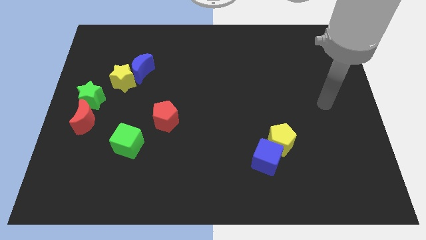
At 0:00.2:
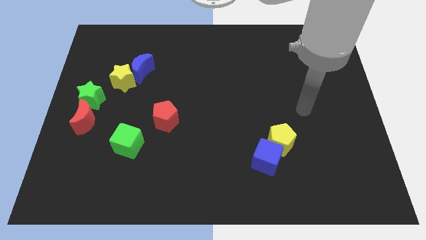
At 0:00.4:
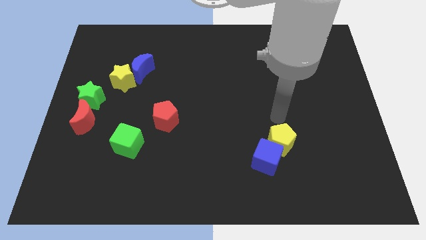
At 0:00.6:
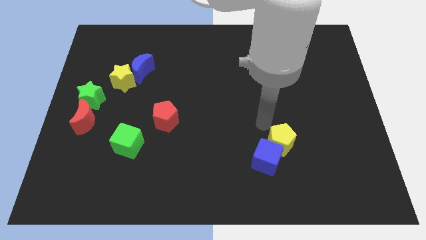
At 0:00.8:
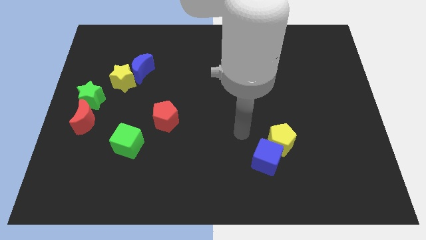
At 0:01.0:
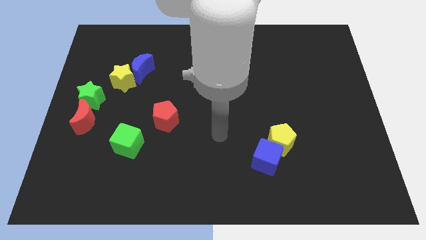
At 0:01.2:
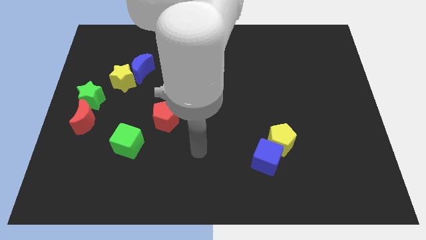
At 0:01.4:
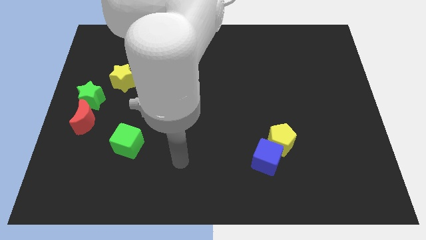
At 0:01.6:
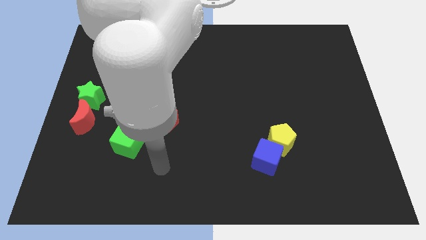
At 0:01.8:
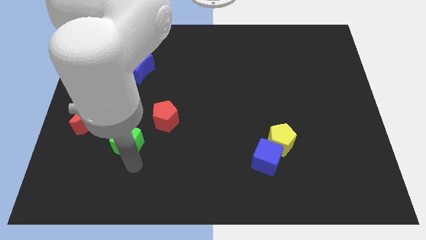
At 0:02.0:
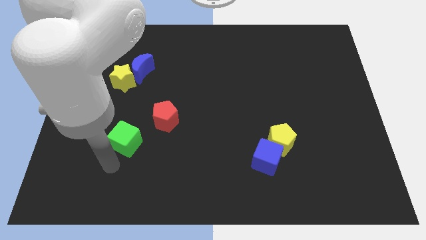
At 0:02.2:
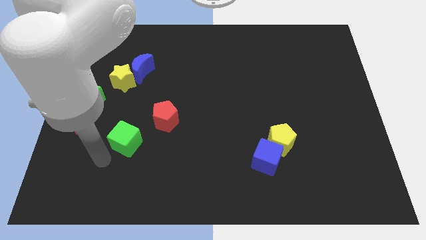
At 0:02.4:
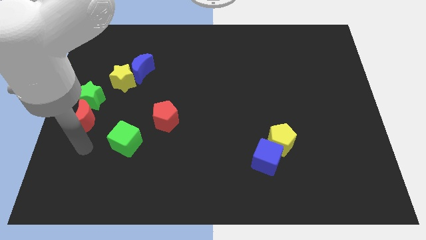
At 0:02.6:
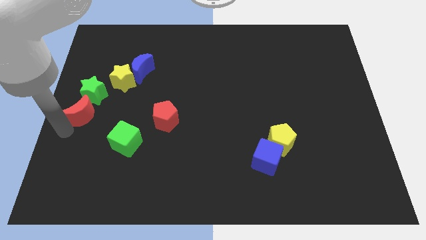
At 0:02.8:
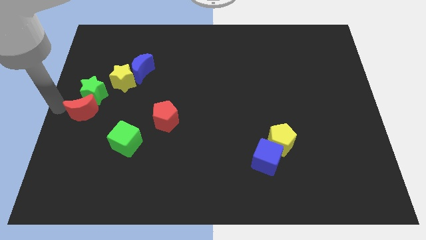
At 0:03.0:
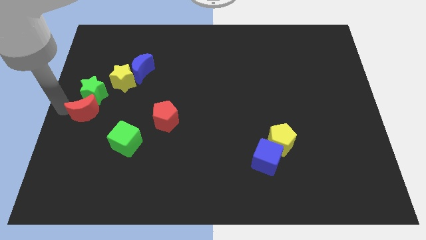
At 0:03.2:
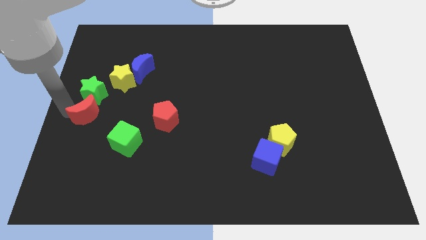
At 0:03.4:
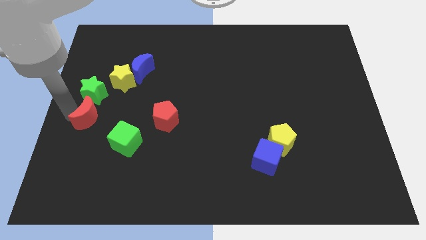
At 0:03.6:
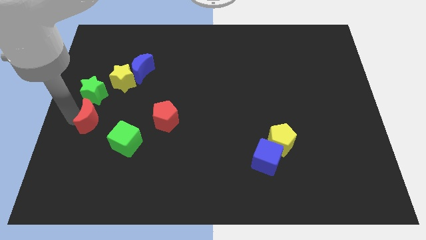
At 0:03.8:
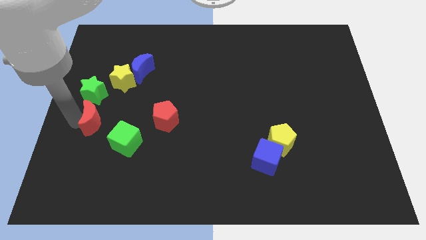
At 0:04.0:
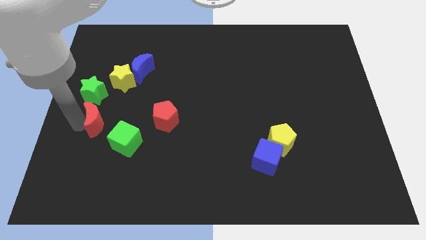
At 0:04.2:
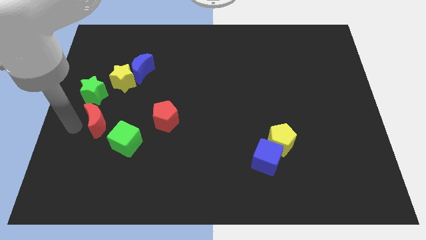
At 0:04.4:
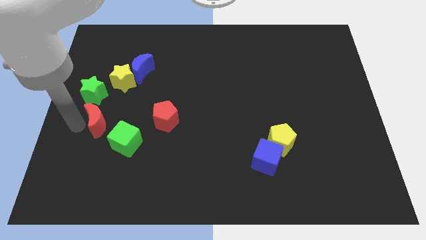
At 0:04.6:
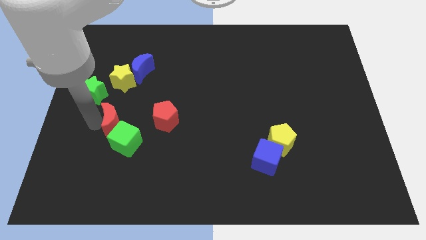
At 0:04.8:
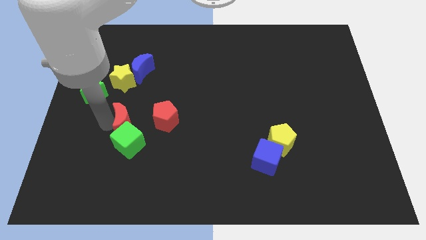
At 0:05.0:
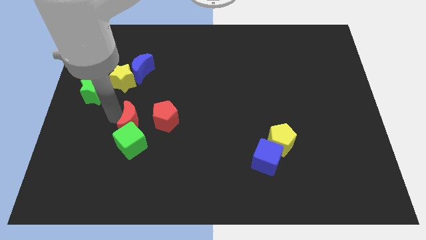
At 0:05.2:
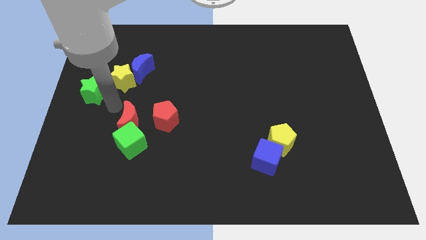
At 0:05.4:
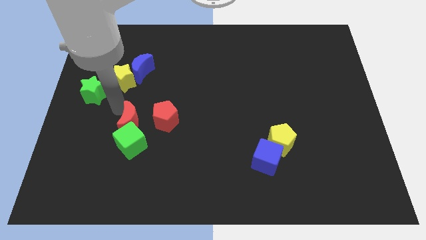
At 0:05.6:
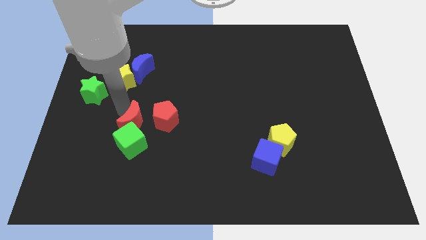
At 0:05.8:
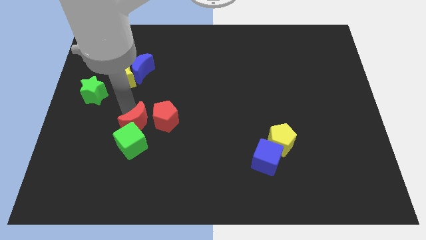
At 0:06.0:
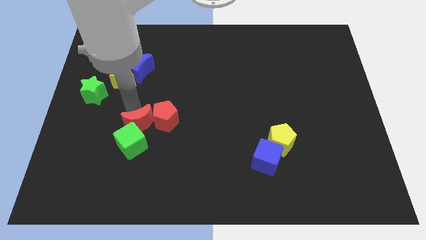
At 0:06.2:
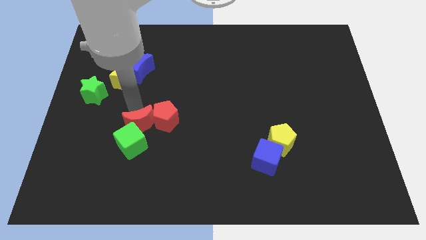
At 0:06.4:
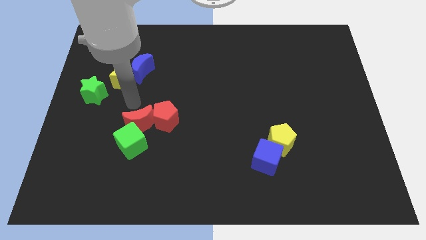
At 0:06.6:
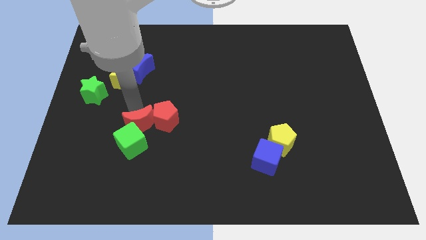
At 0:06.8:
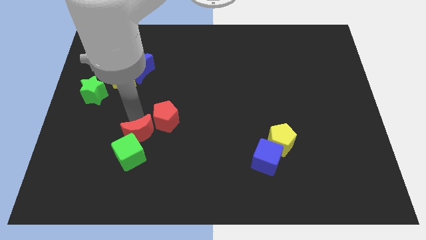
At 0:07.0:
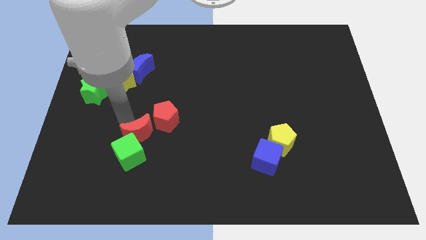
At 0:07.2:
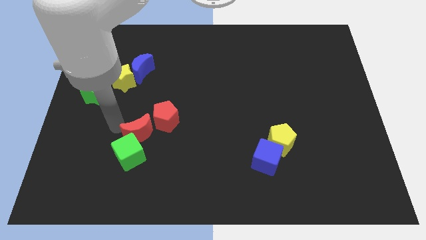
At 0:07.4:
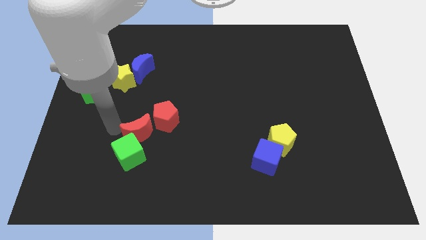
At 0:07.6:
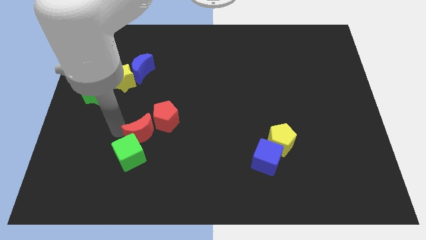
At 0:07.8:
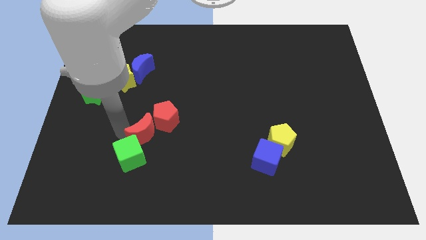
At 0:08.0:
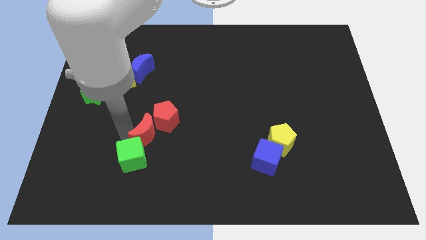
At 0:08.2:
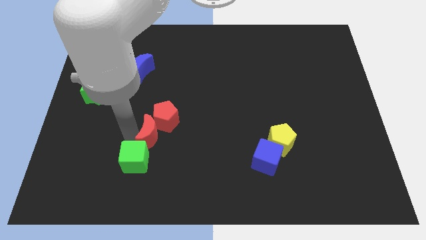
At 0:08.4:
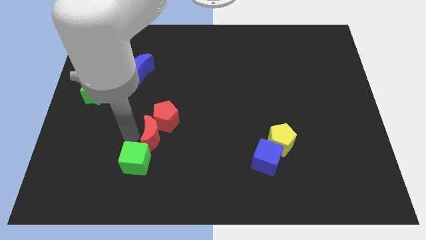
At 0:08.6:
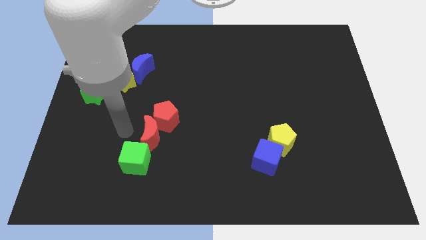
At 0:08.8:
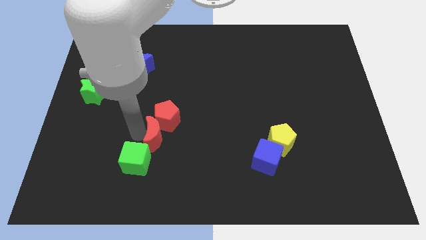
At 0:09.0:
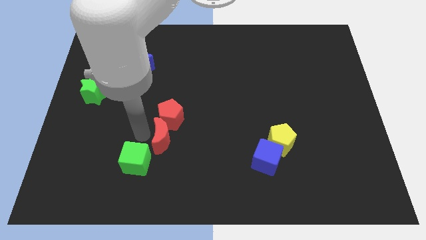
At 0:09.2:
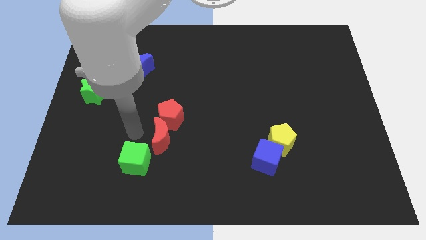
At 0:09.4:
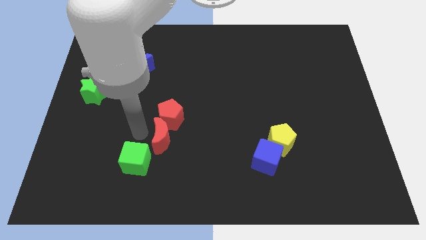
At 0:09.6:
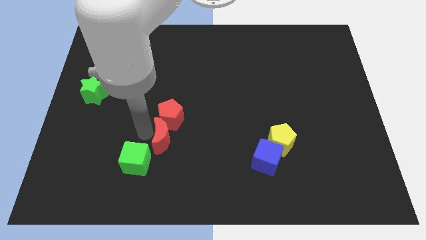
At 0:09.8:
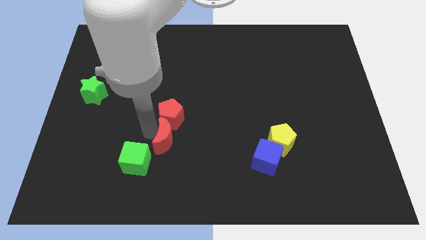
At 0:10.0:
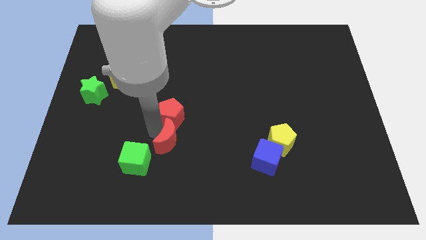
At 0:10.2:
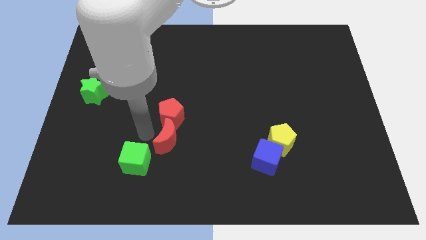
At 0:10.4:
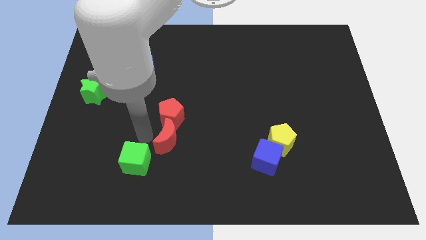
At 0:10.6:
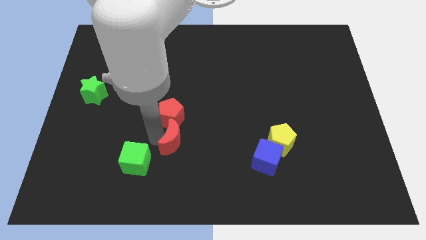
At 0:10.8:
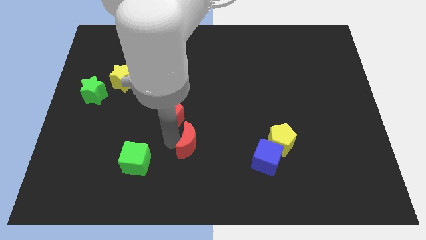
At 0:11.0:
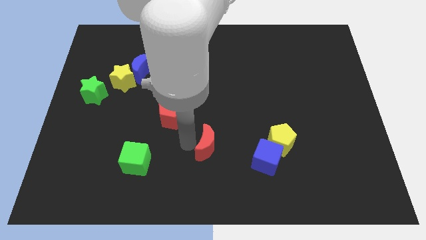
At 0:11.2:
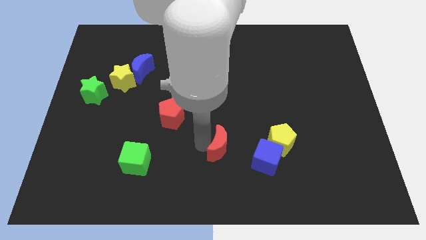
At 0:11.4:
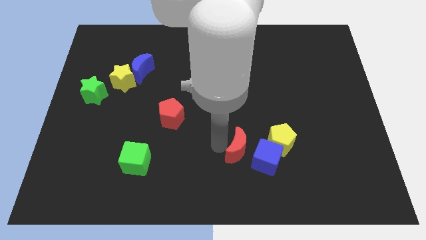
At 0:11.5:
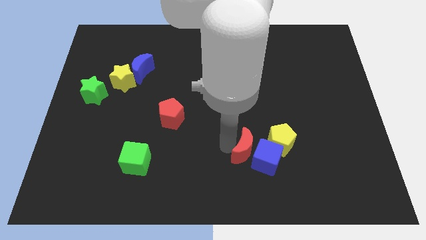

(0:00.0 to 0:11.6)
slide the red moon to the bottom left side of the yellow pentagon

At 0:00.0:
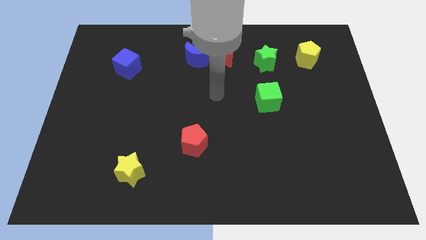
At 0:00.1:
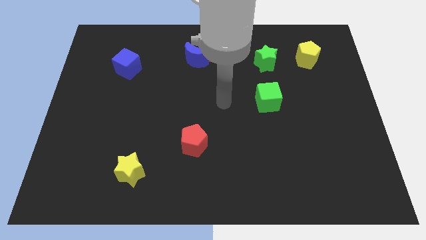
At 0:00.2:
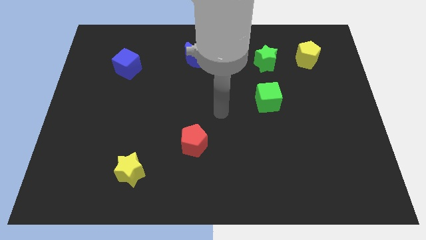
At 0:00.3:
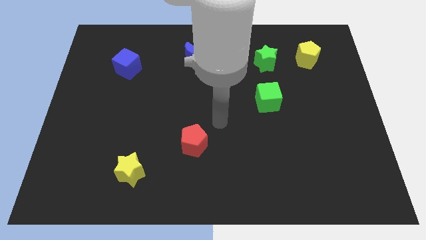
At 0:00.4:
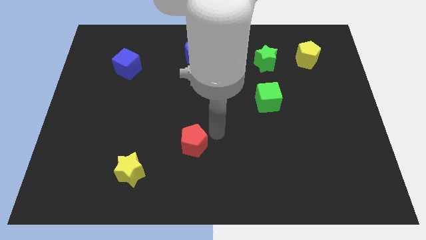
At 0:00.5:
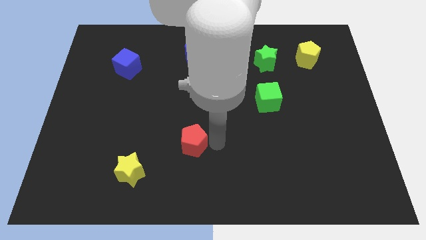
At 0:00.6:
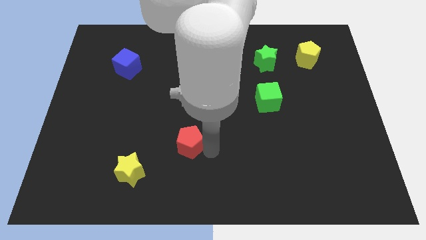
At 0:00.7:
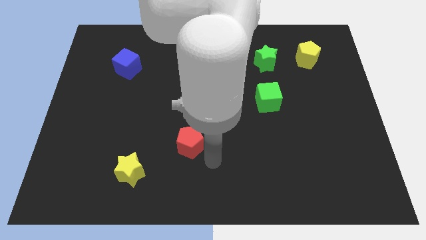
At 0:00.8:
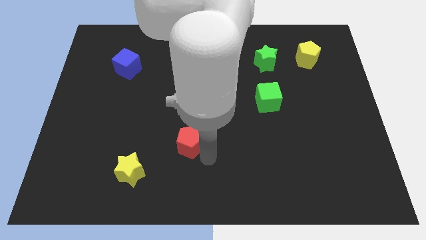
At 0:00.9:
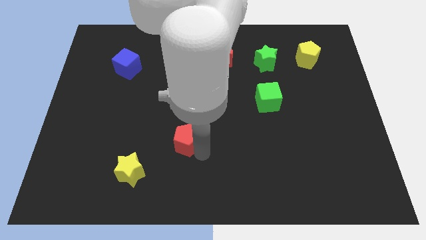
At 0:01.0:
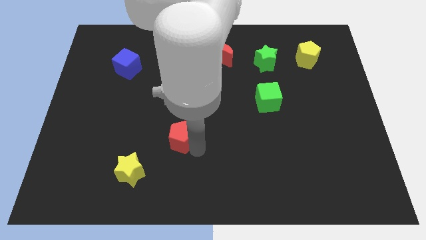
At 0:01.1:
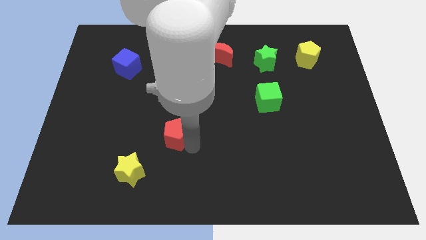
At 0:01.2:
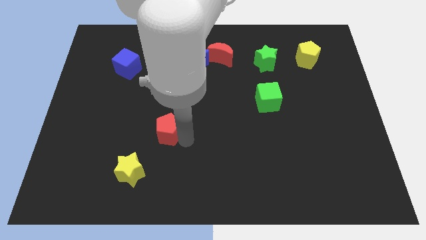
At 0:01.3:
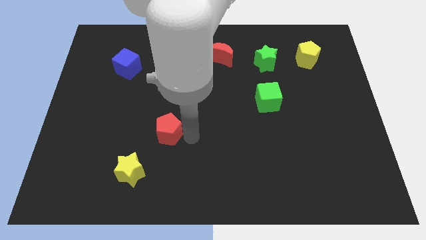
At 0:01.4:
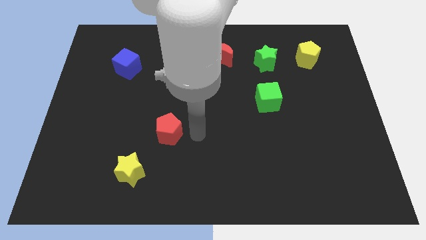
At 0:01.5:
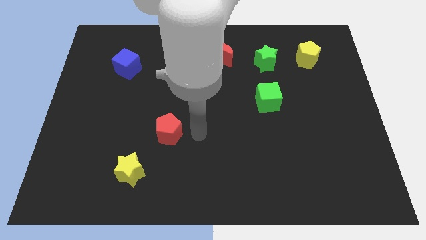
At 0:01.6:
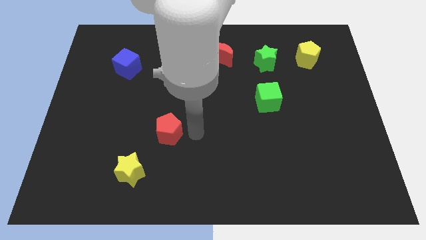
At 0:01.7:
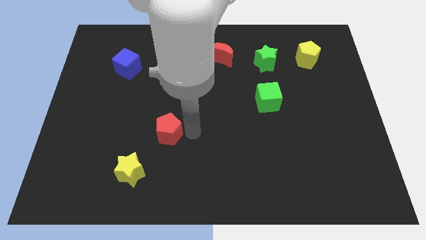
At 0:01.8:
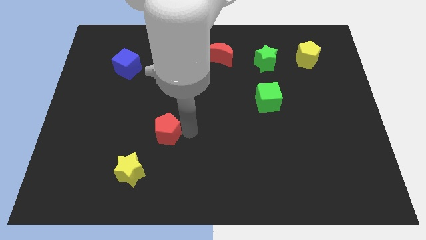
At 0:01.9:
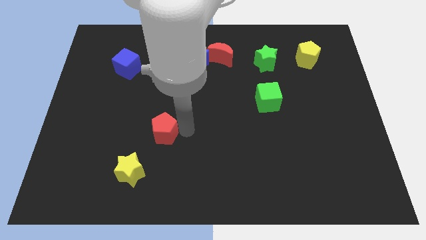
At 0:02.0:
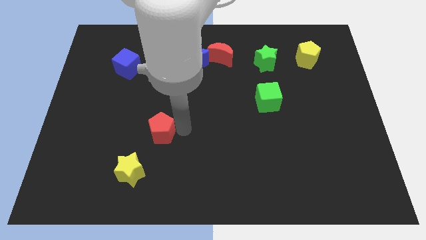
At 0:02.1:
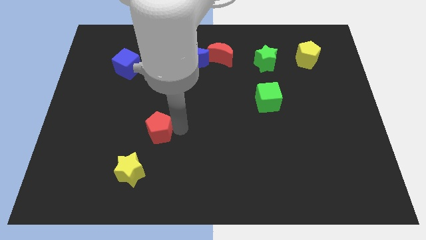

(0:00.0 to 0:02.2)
move the red pentagon above the yellow star
